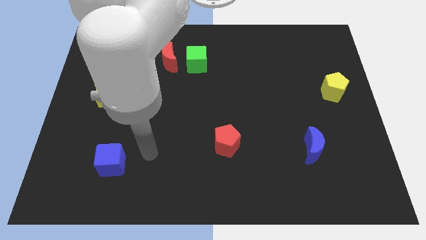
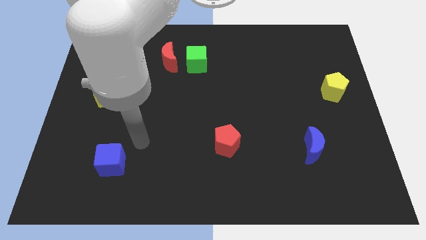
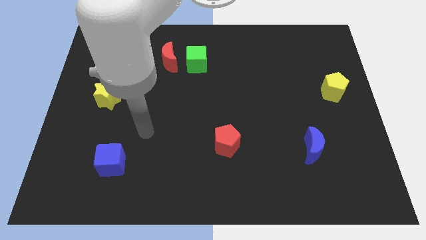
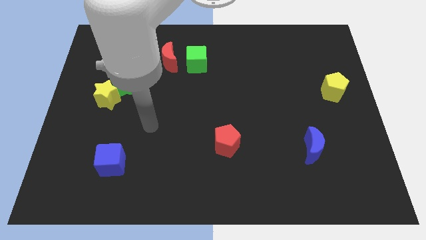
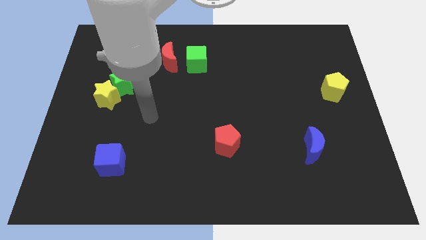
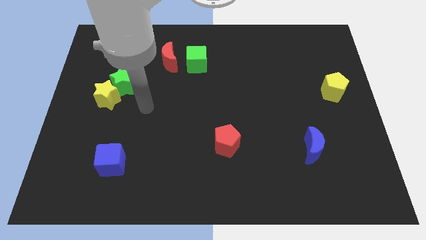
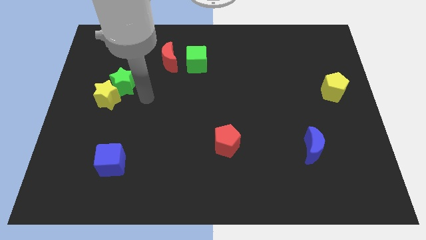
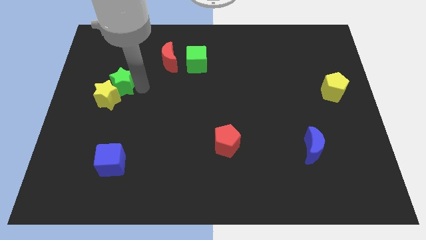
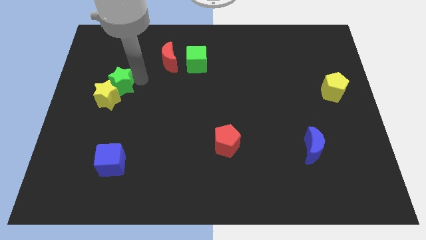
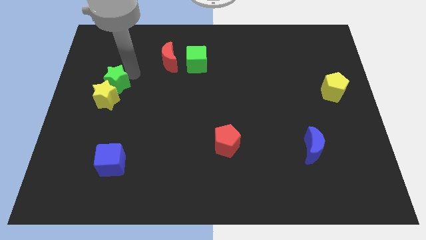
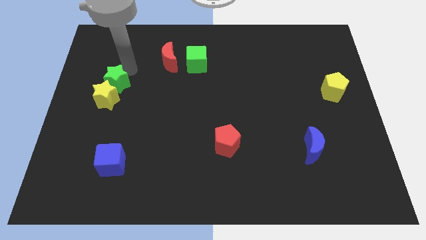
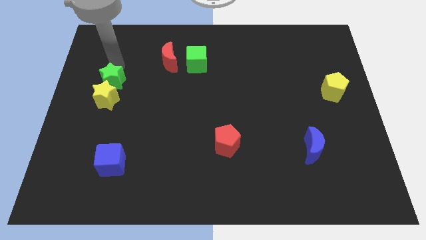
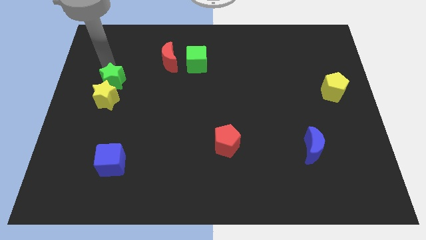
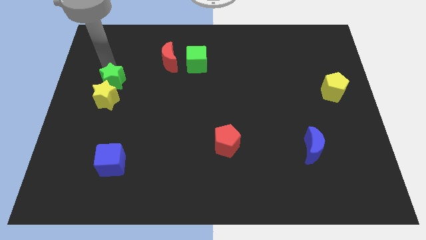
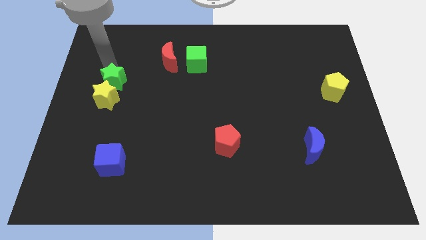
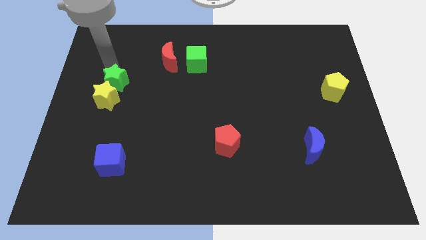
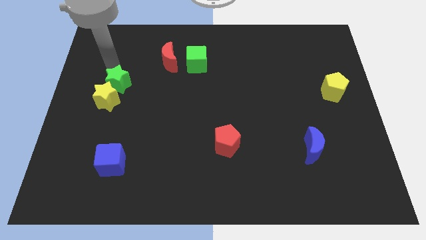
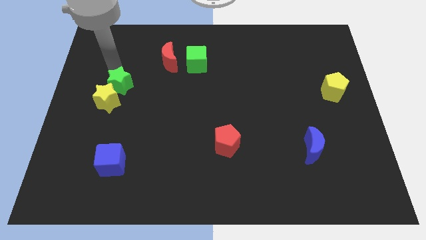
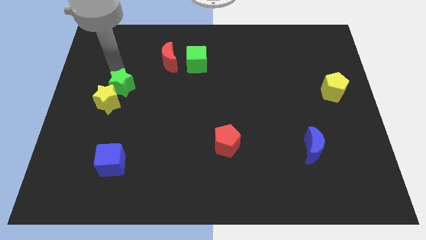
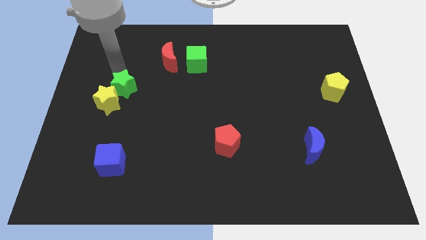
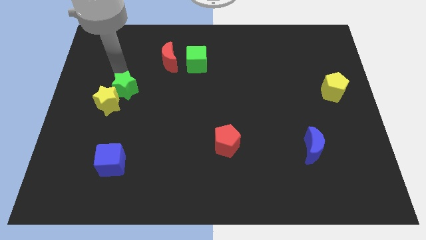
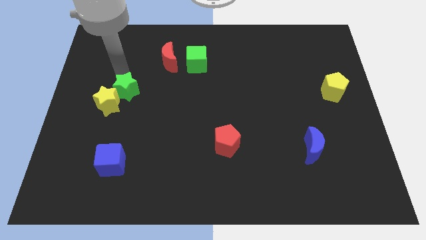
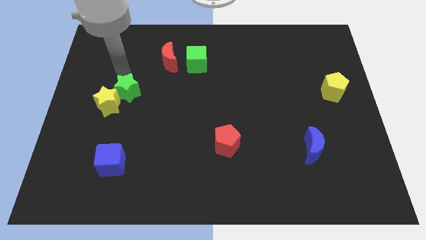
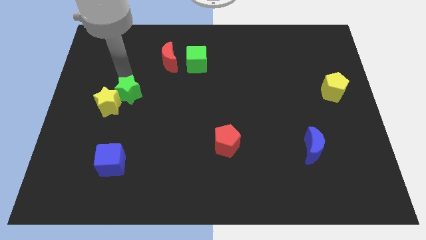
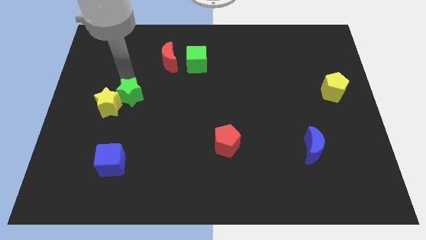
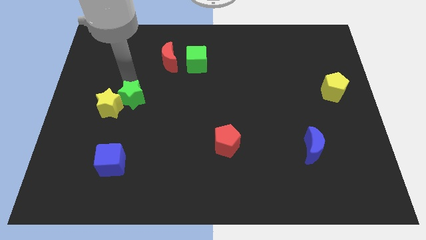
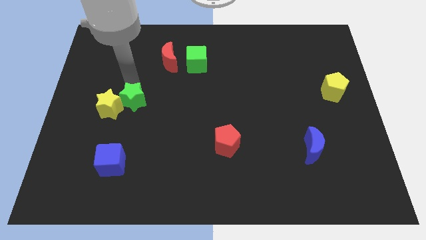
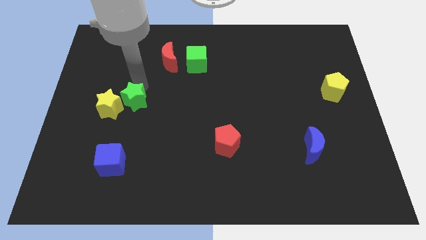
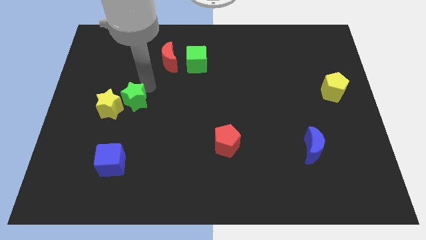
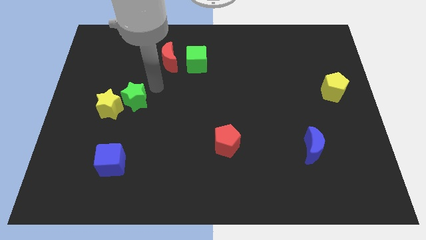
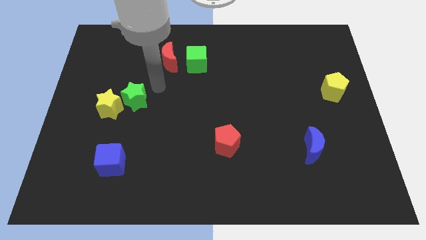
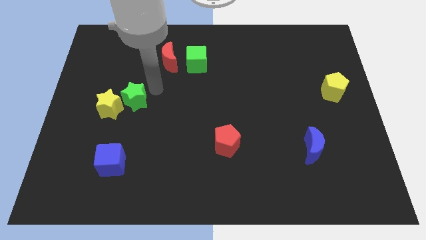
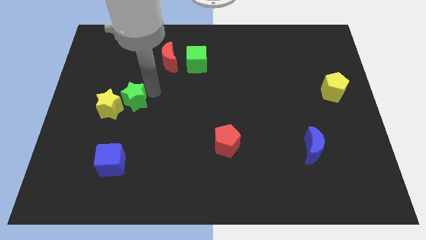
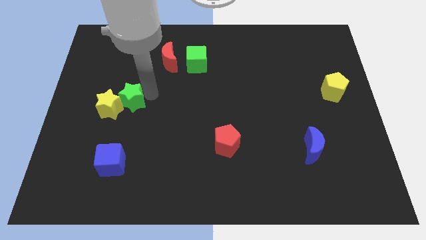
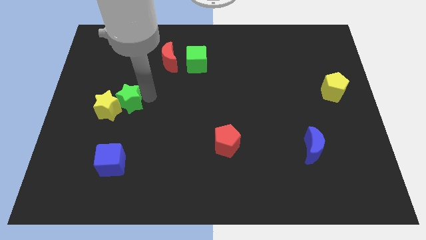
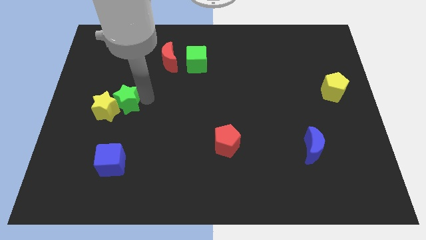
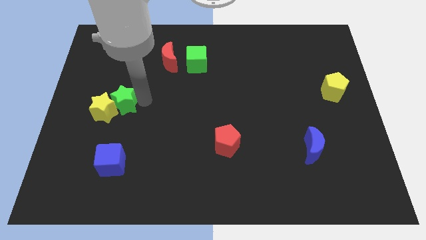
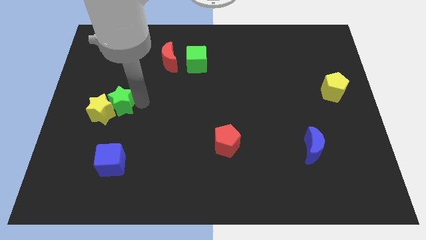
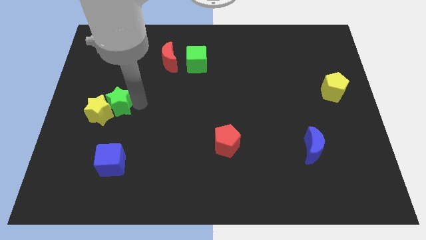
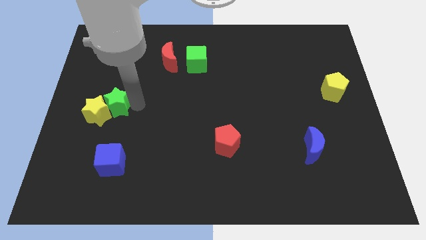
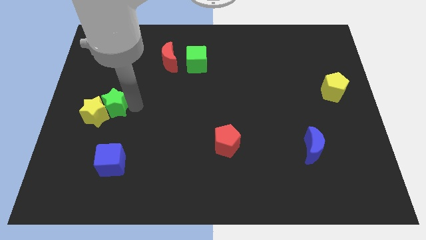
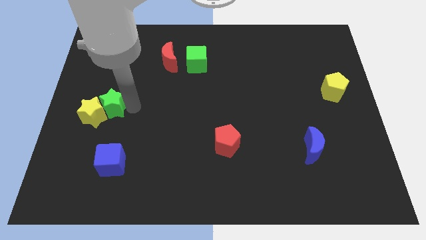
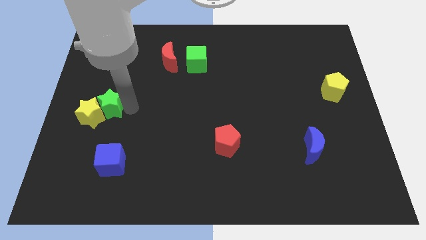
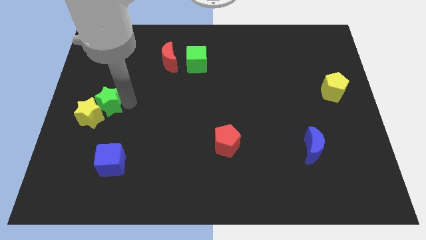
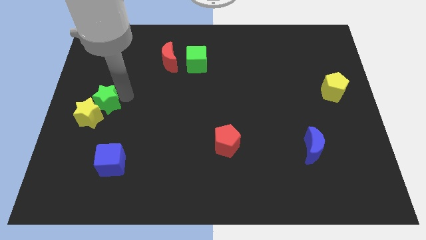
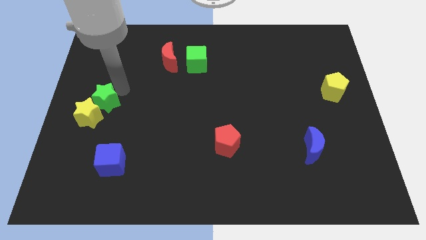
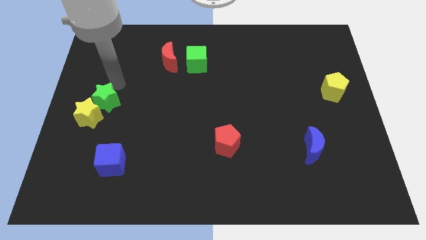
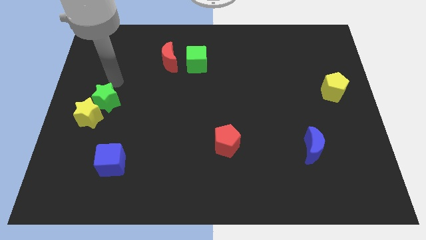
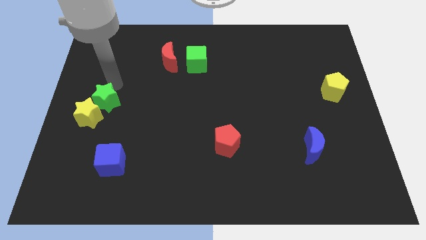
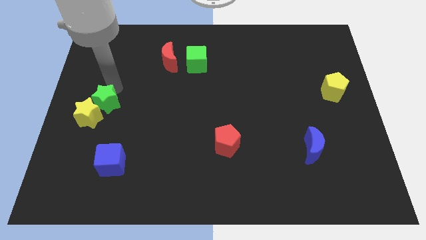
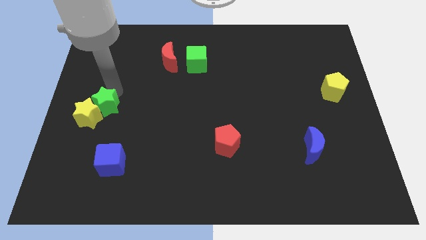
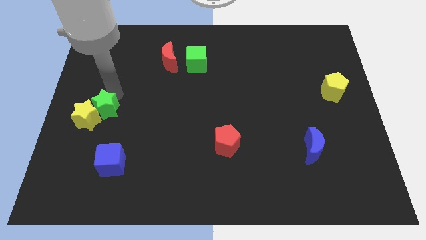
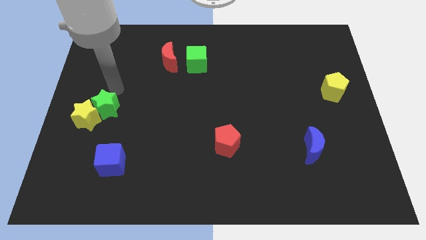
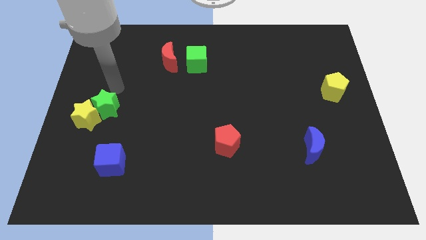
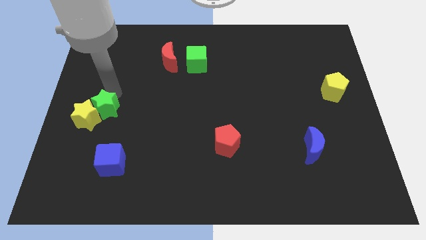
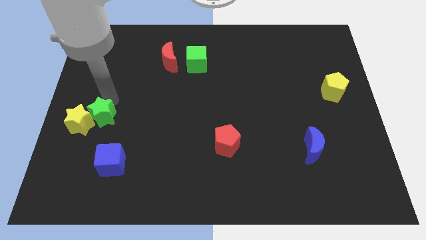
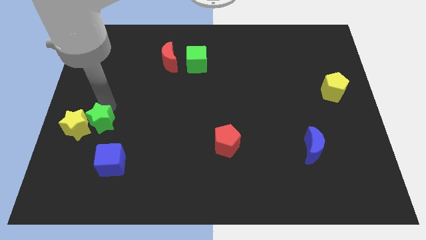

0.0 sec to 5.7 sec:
put the green star diagonally up and to the left of the blue cube

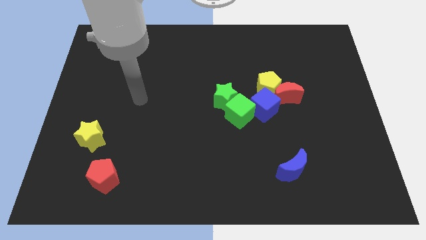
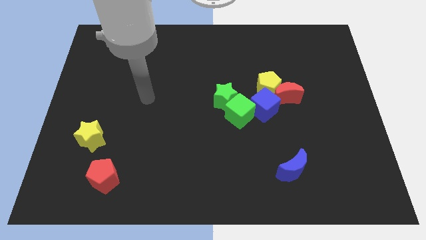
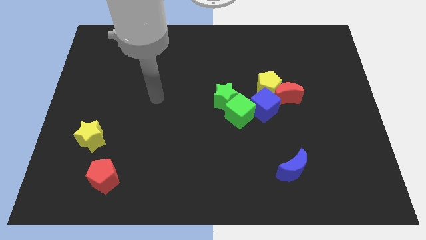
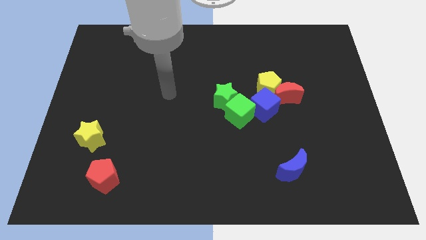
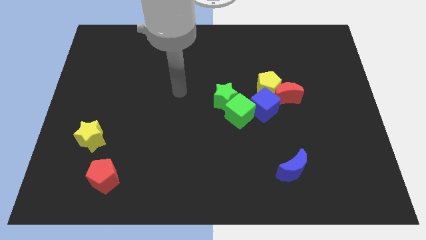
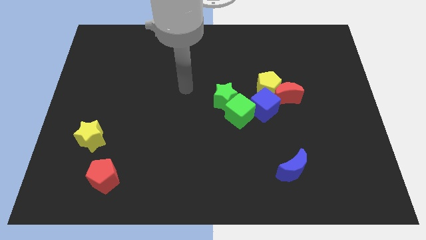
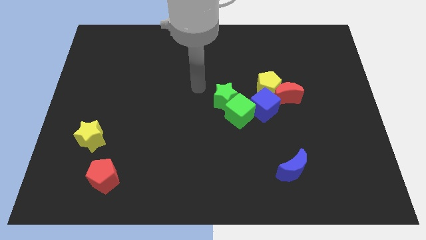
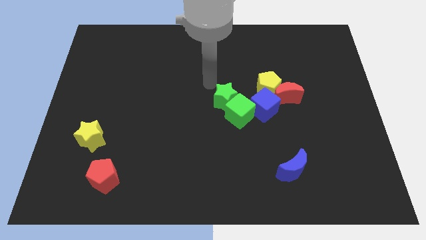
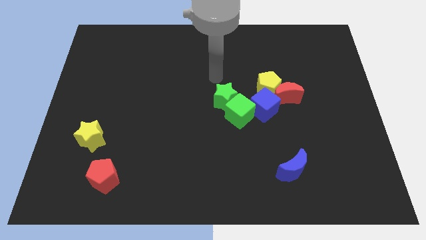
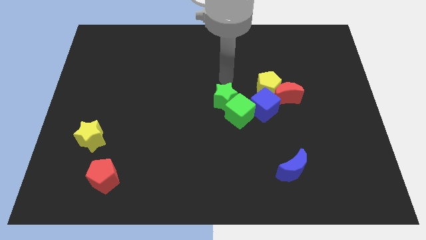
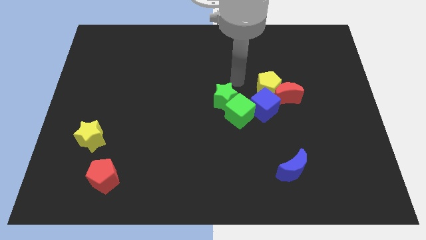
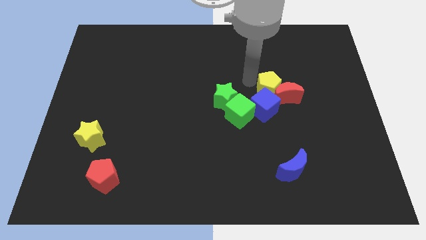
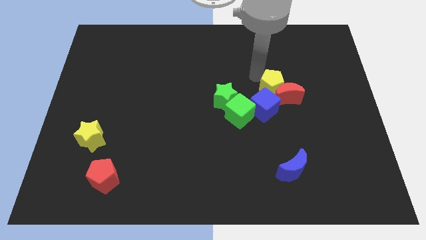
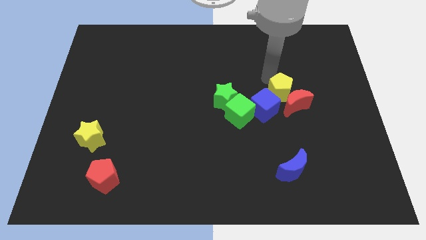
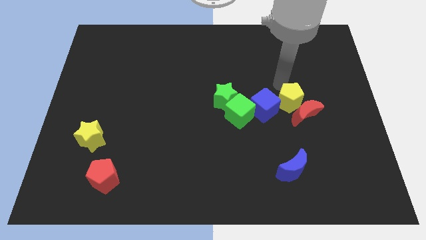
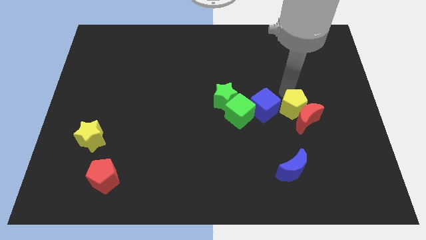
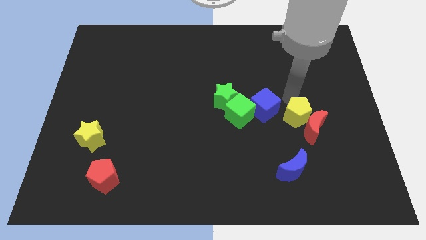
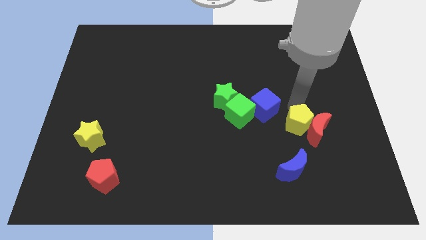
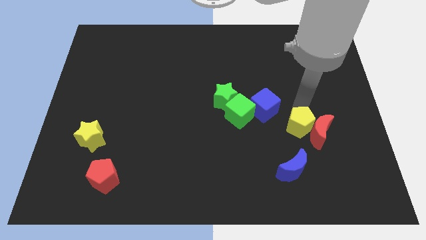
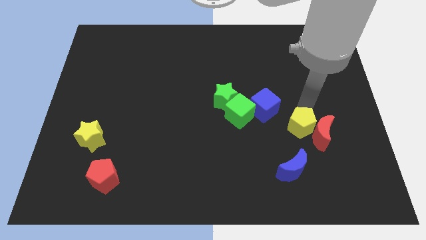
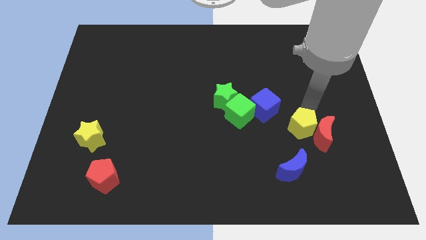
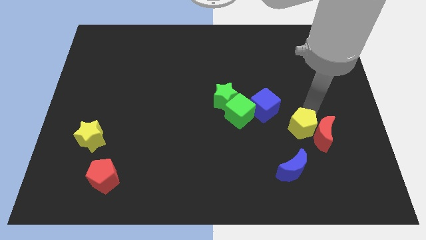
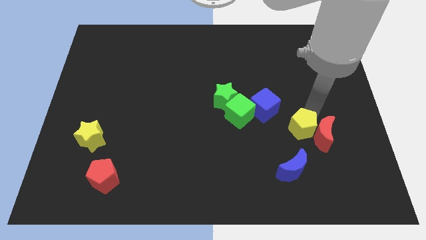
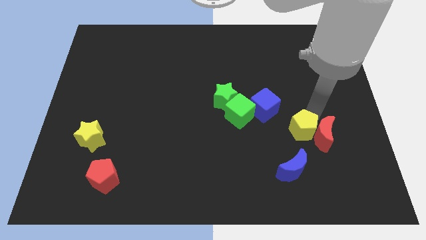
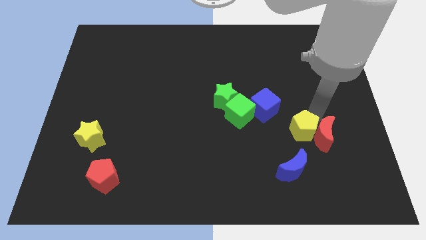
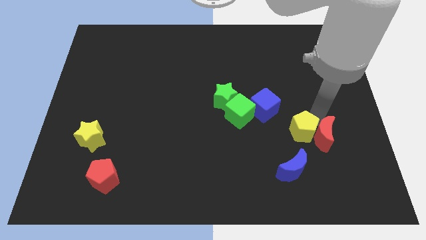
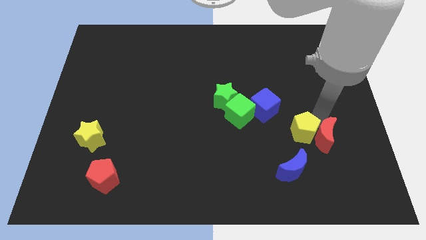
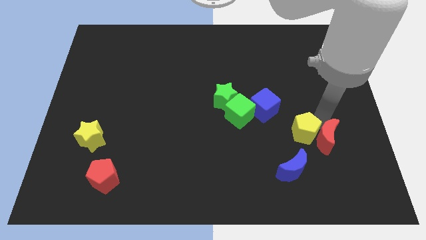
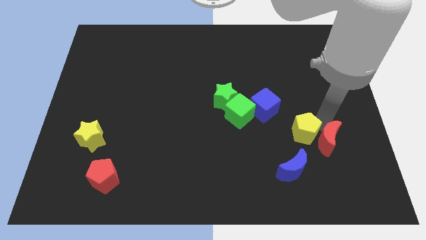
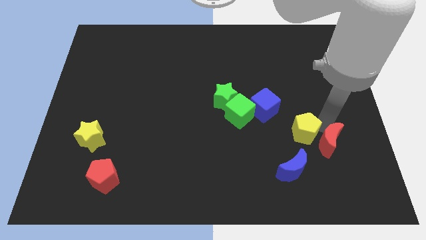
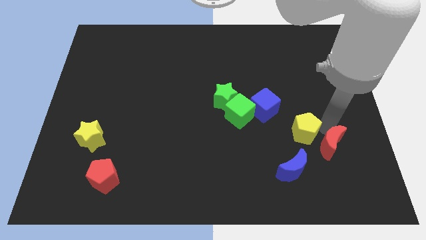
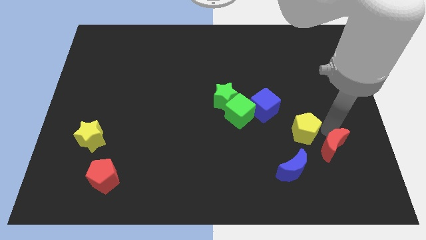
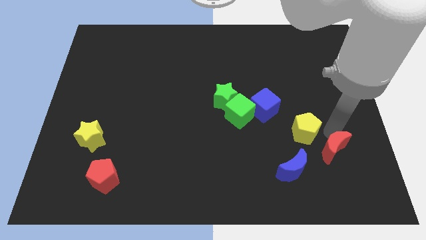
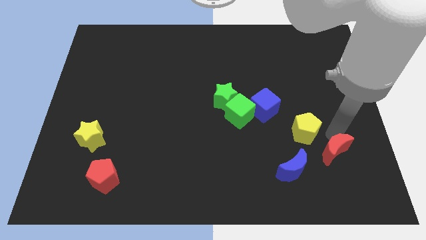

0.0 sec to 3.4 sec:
put the red moon to the right of the blue moon
